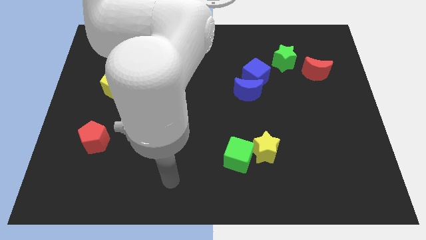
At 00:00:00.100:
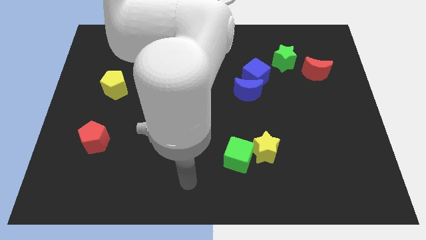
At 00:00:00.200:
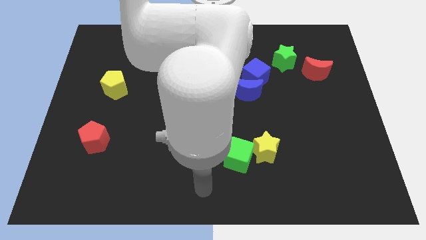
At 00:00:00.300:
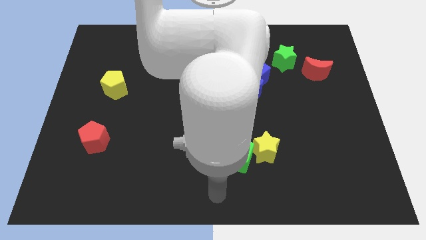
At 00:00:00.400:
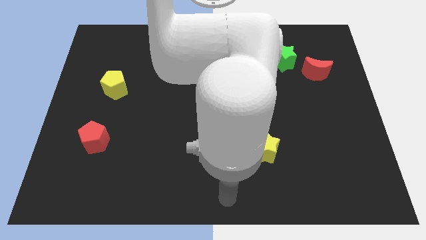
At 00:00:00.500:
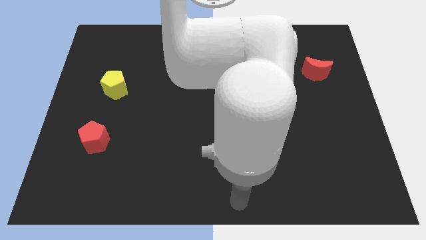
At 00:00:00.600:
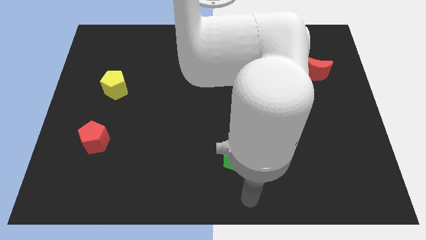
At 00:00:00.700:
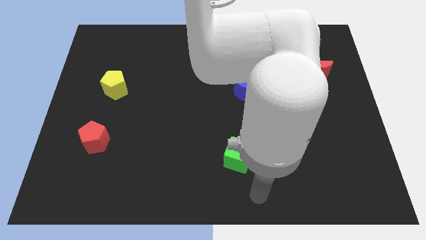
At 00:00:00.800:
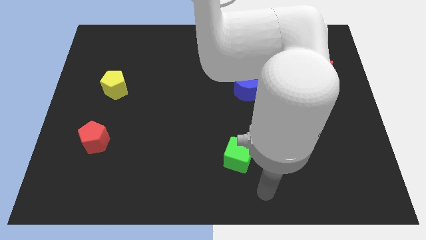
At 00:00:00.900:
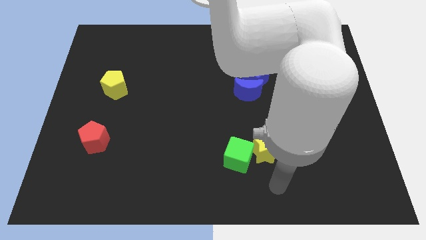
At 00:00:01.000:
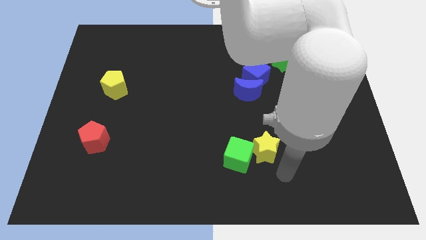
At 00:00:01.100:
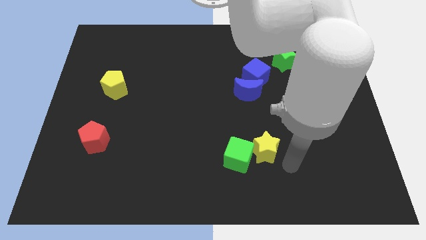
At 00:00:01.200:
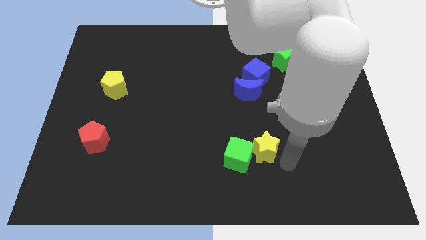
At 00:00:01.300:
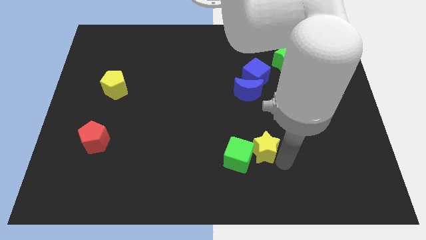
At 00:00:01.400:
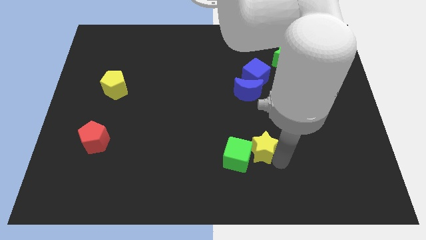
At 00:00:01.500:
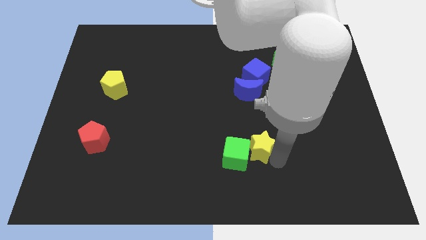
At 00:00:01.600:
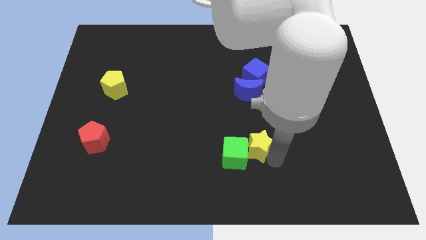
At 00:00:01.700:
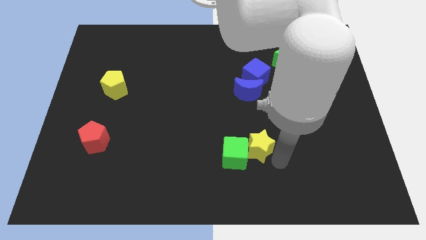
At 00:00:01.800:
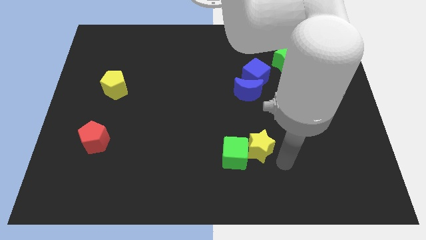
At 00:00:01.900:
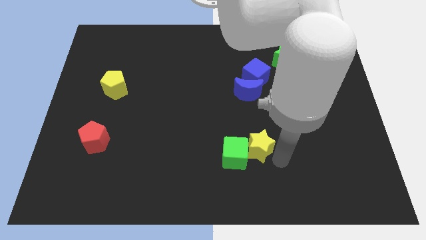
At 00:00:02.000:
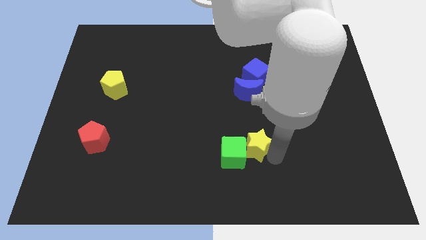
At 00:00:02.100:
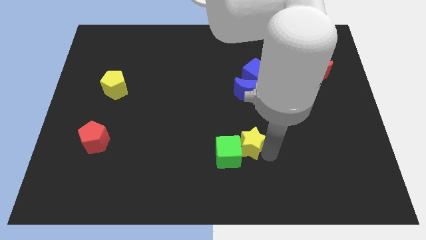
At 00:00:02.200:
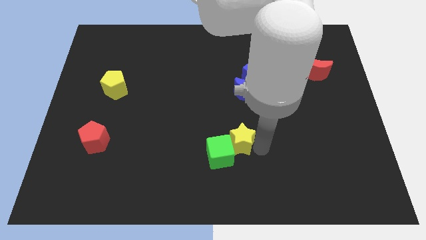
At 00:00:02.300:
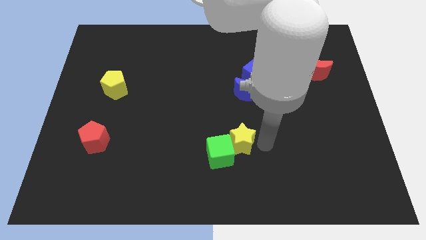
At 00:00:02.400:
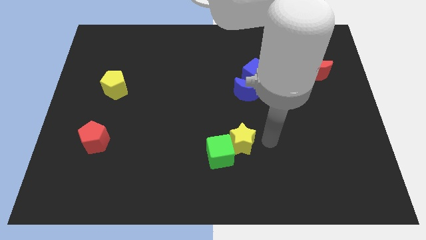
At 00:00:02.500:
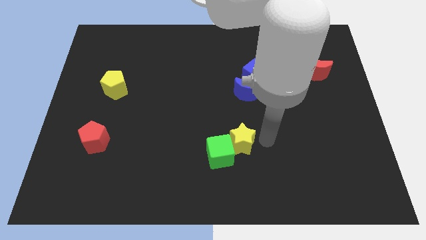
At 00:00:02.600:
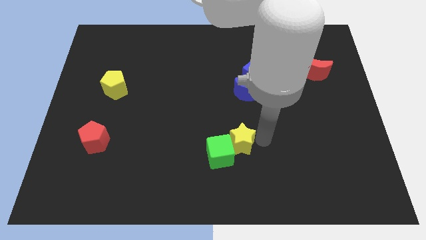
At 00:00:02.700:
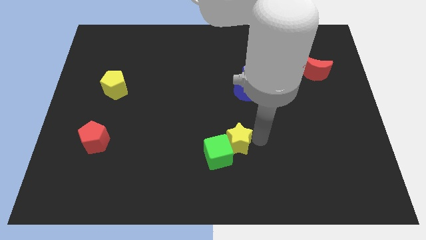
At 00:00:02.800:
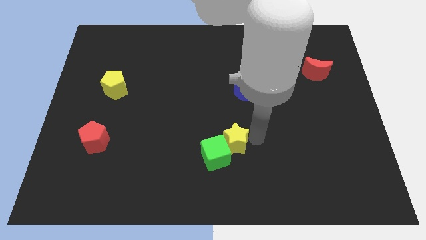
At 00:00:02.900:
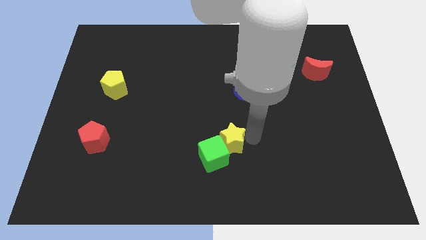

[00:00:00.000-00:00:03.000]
slightly slide the yellow star left

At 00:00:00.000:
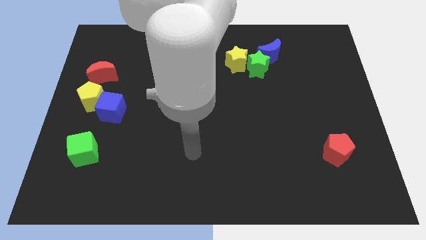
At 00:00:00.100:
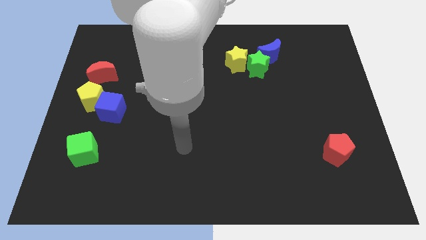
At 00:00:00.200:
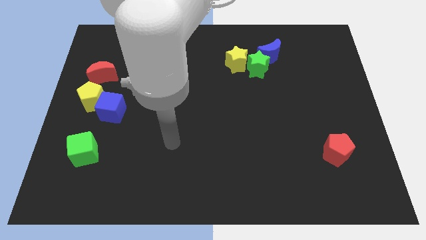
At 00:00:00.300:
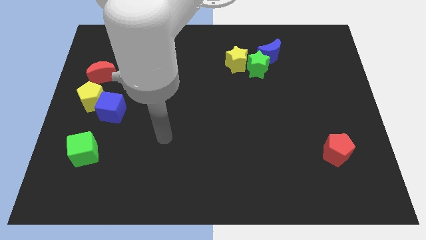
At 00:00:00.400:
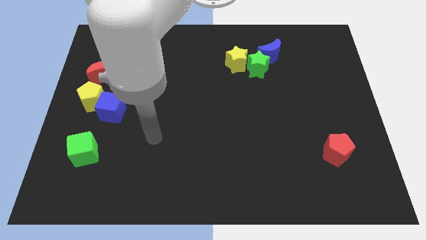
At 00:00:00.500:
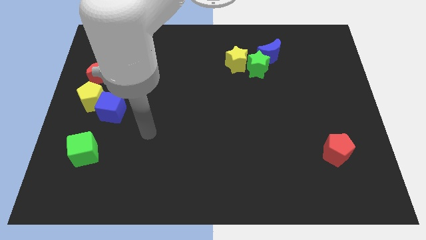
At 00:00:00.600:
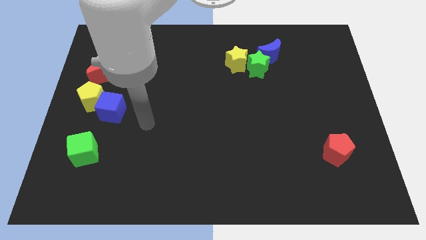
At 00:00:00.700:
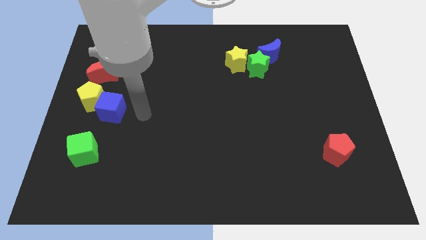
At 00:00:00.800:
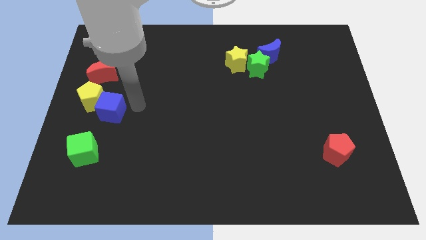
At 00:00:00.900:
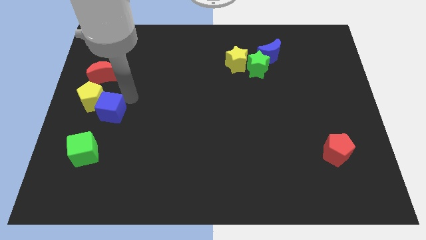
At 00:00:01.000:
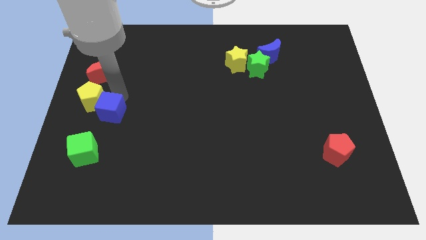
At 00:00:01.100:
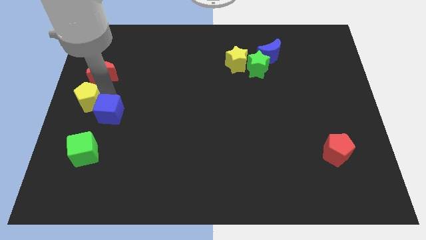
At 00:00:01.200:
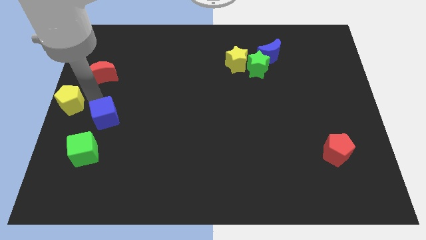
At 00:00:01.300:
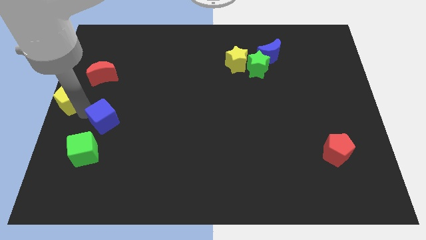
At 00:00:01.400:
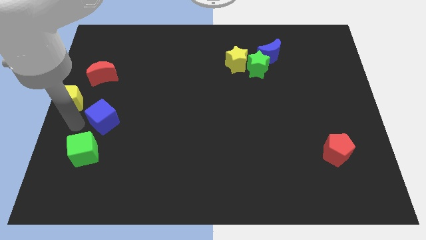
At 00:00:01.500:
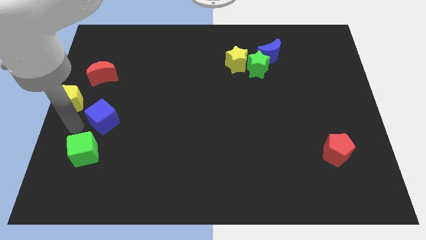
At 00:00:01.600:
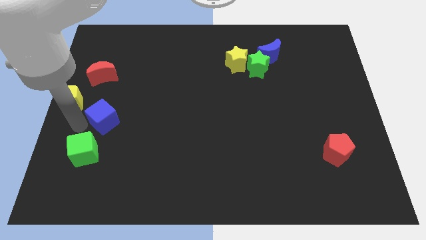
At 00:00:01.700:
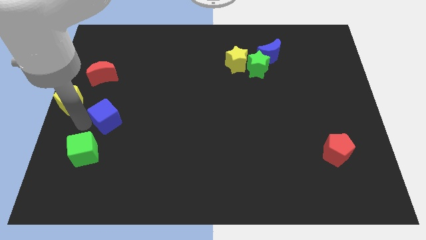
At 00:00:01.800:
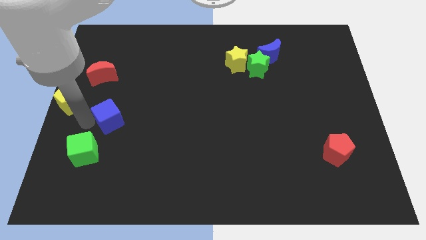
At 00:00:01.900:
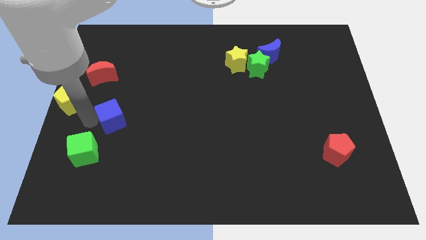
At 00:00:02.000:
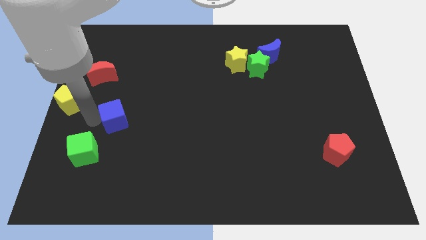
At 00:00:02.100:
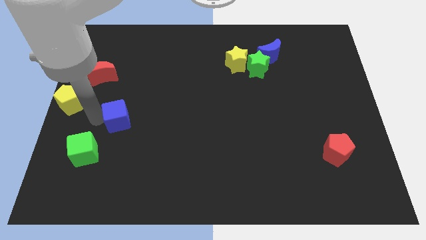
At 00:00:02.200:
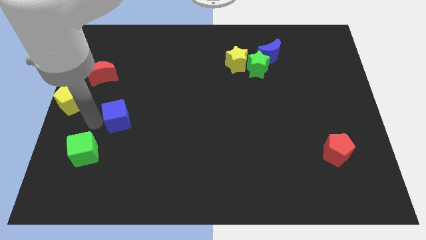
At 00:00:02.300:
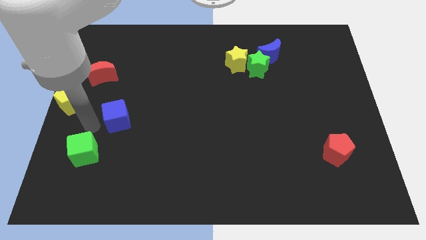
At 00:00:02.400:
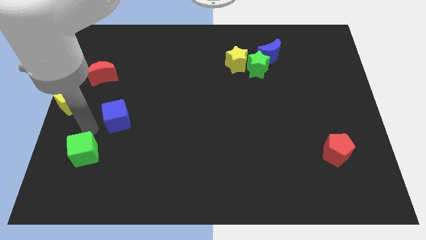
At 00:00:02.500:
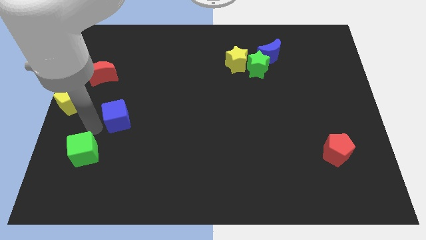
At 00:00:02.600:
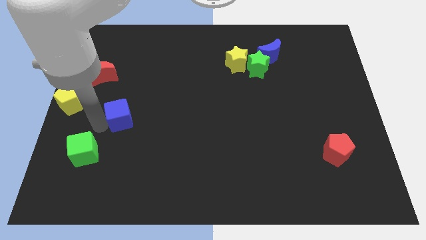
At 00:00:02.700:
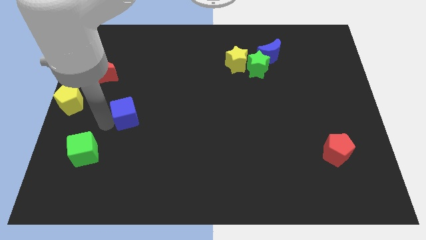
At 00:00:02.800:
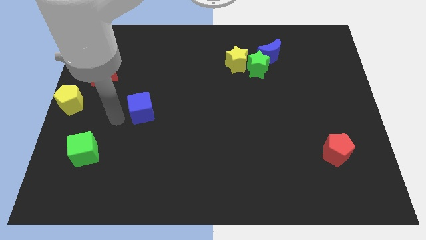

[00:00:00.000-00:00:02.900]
slightly push the blue cube right

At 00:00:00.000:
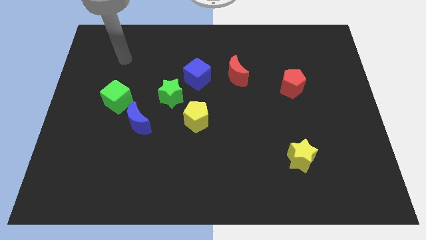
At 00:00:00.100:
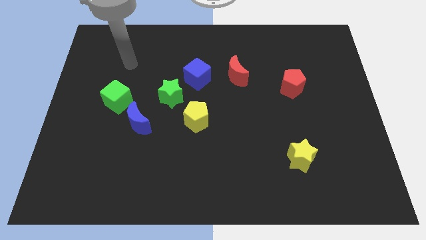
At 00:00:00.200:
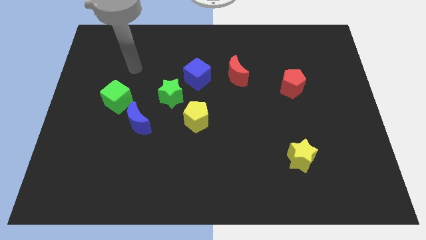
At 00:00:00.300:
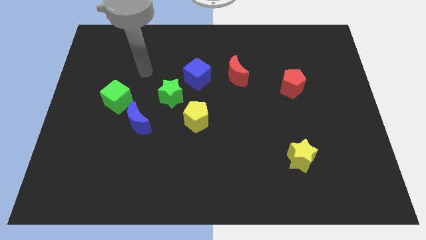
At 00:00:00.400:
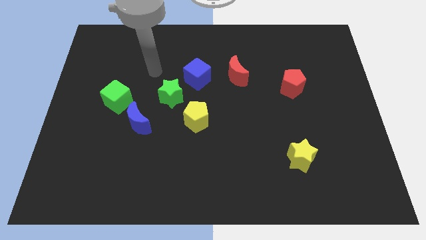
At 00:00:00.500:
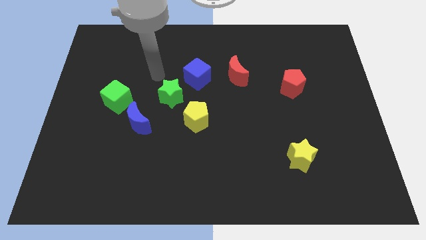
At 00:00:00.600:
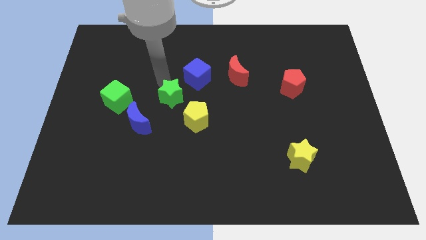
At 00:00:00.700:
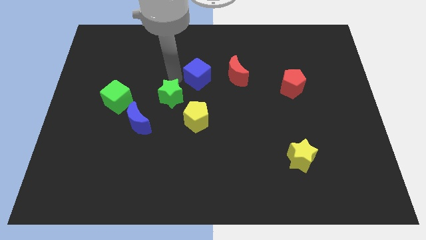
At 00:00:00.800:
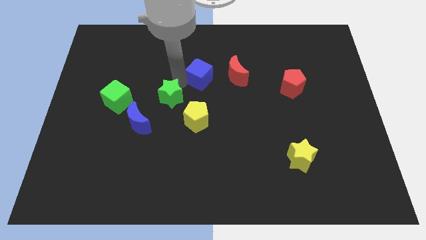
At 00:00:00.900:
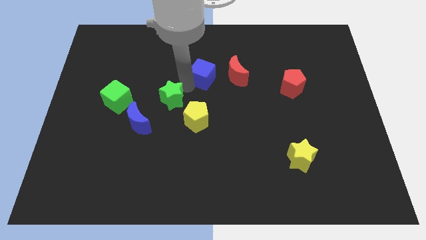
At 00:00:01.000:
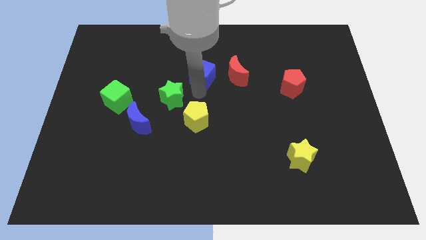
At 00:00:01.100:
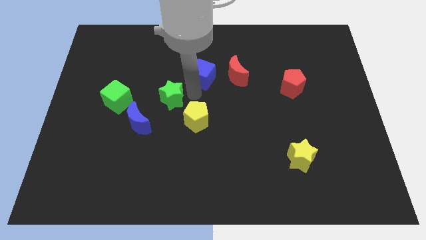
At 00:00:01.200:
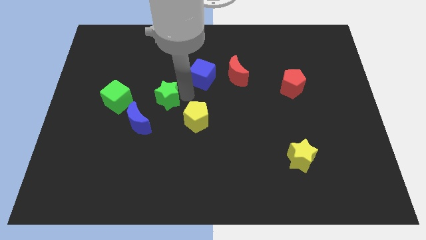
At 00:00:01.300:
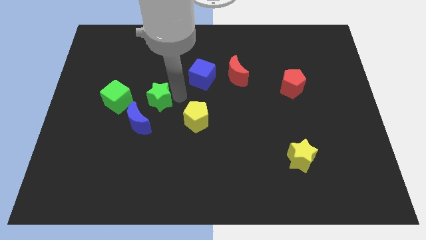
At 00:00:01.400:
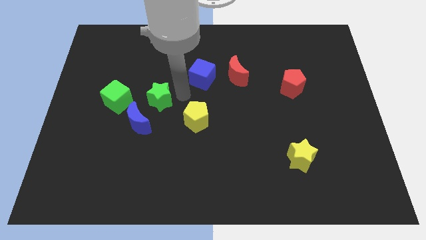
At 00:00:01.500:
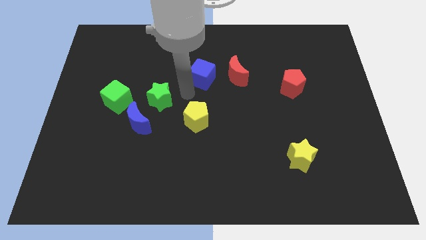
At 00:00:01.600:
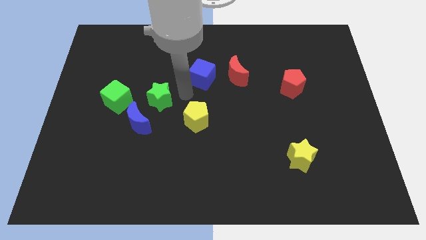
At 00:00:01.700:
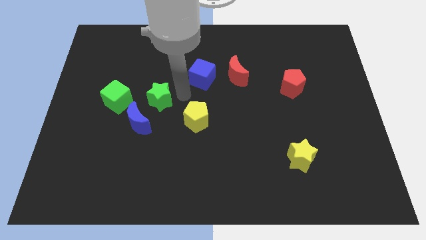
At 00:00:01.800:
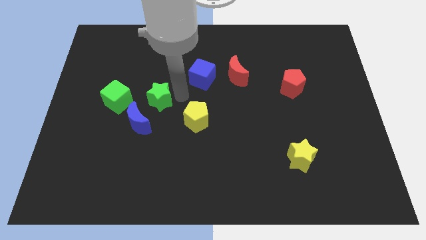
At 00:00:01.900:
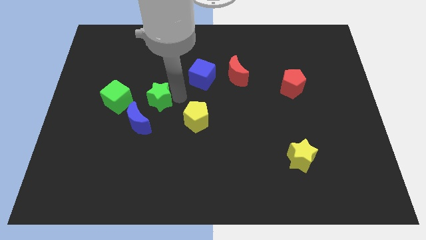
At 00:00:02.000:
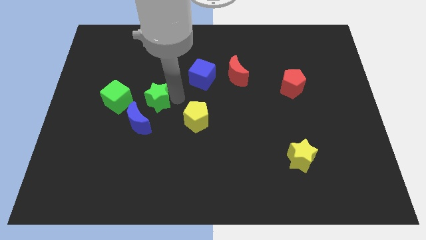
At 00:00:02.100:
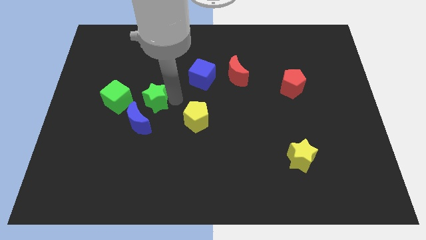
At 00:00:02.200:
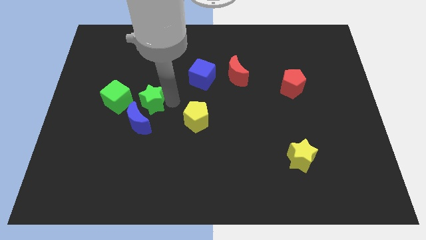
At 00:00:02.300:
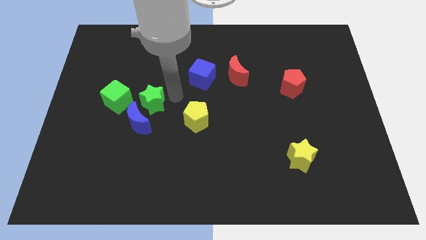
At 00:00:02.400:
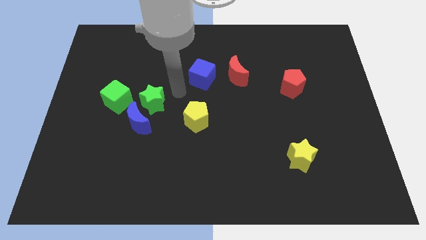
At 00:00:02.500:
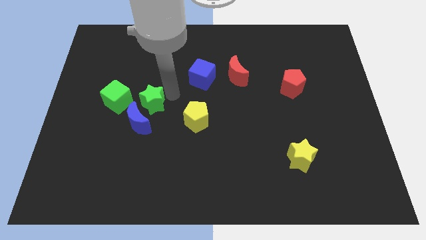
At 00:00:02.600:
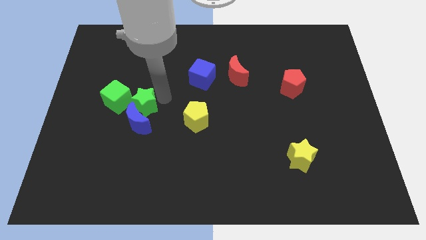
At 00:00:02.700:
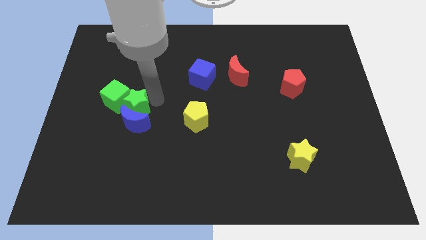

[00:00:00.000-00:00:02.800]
push the green star down and then to the left a little
